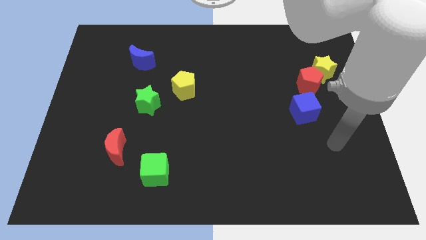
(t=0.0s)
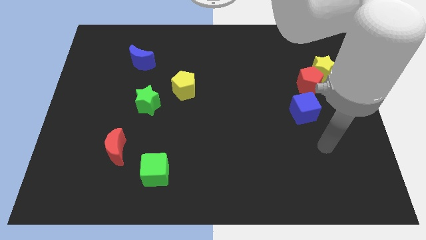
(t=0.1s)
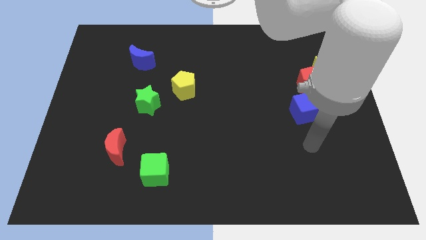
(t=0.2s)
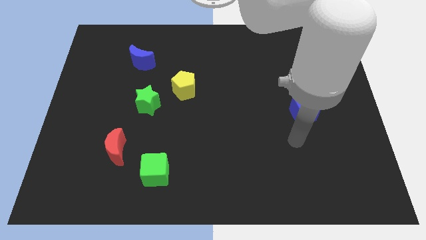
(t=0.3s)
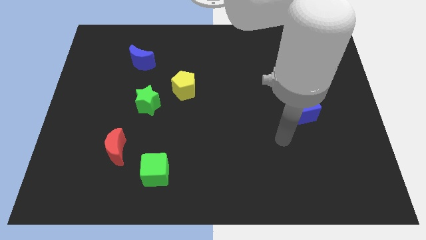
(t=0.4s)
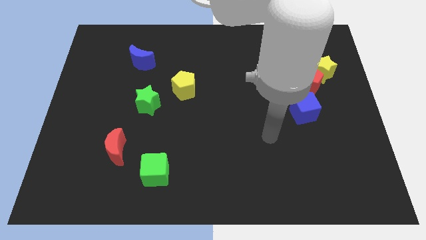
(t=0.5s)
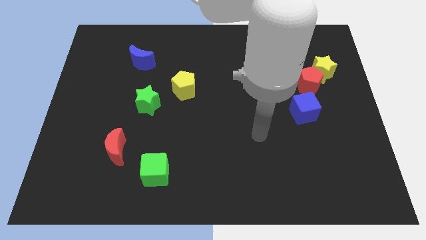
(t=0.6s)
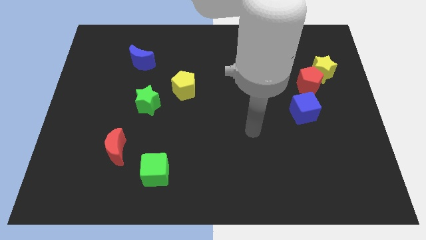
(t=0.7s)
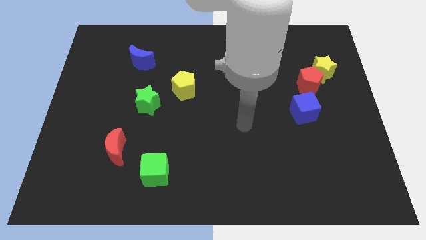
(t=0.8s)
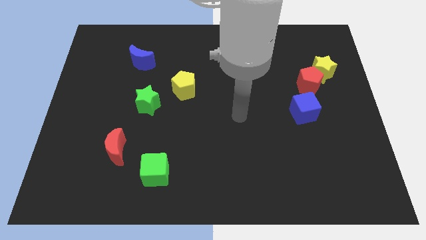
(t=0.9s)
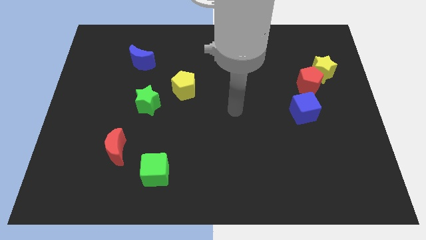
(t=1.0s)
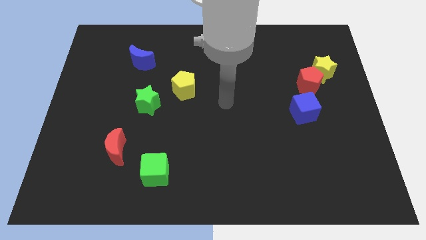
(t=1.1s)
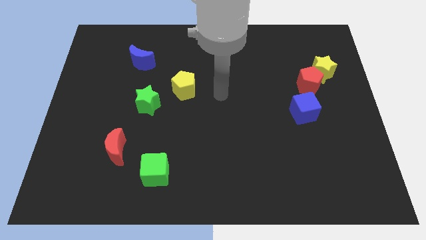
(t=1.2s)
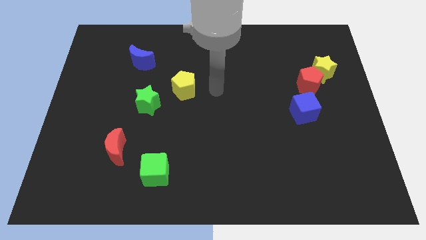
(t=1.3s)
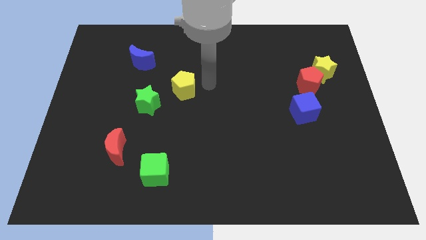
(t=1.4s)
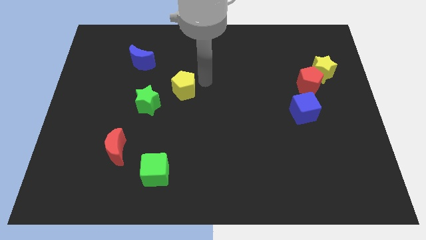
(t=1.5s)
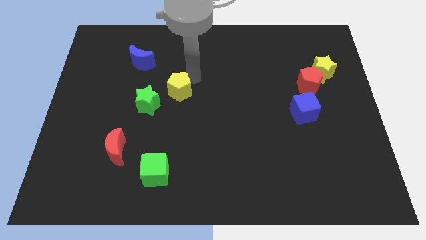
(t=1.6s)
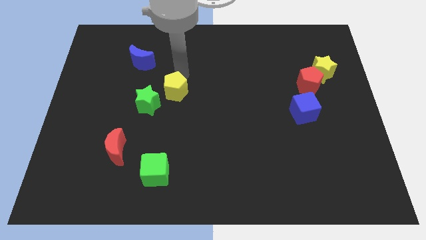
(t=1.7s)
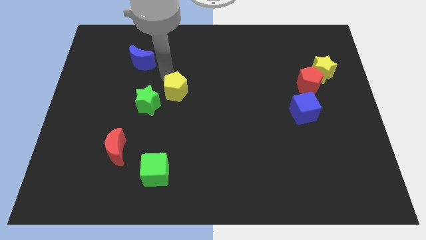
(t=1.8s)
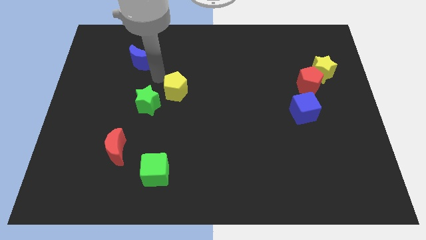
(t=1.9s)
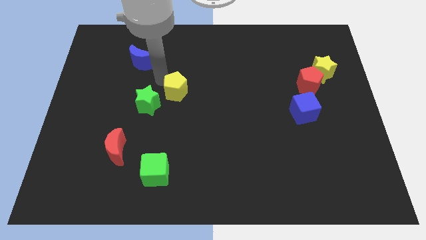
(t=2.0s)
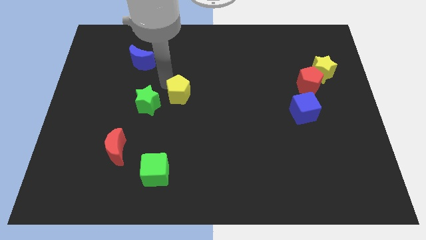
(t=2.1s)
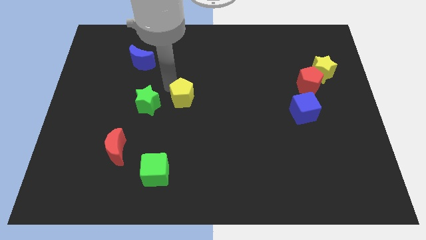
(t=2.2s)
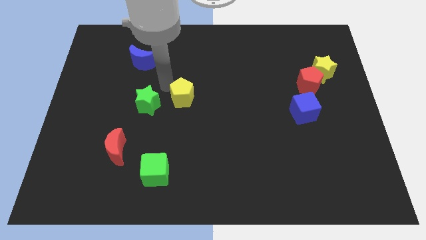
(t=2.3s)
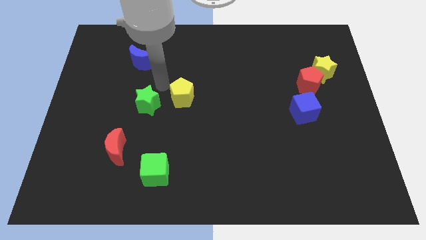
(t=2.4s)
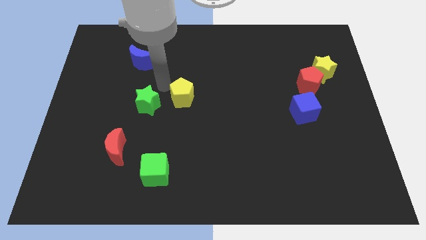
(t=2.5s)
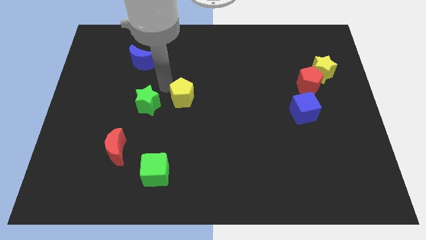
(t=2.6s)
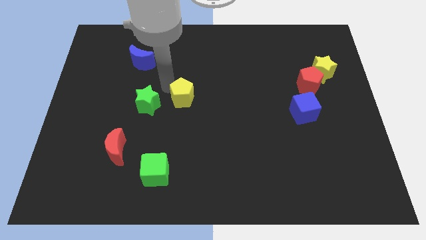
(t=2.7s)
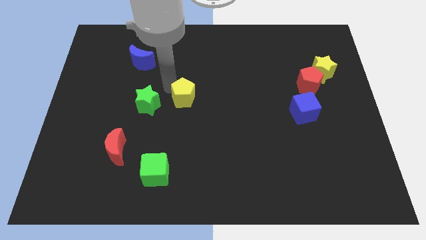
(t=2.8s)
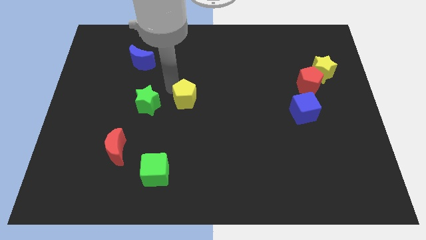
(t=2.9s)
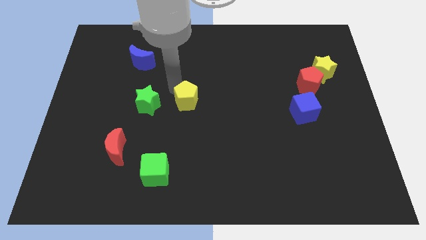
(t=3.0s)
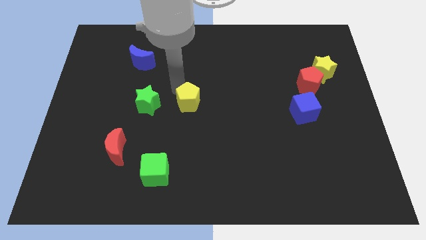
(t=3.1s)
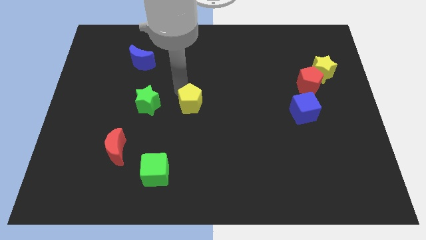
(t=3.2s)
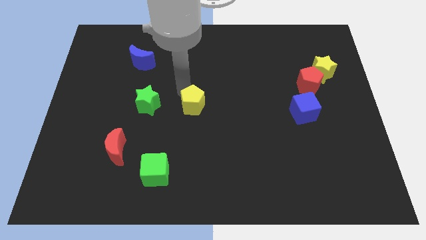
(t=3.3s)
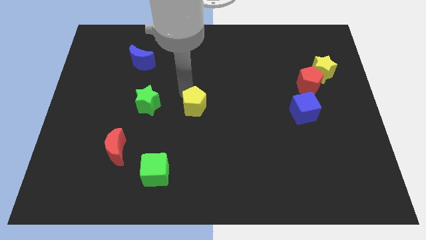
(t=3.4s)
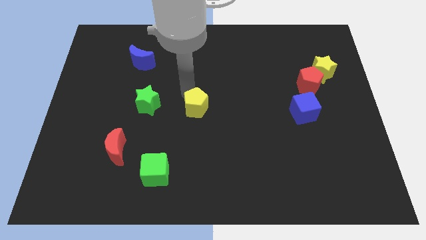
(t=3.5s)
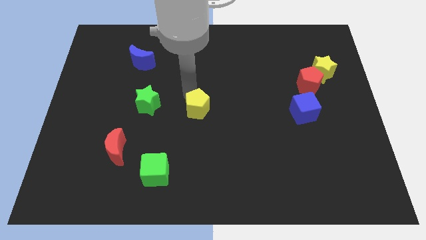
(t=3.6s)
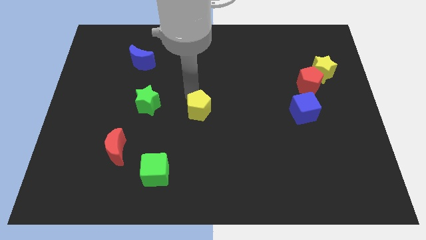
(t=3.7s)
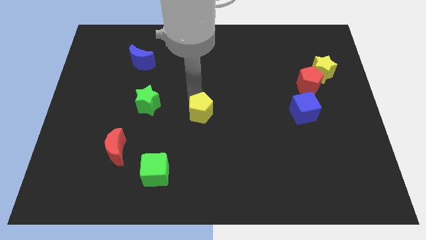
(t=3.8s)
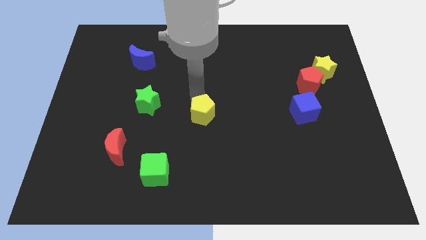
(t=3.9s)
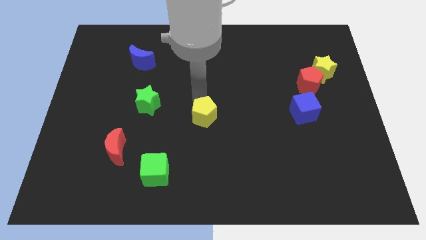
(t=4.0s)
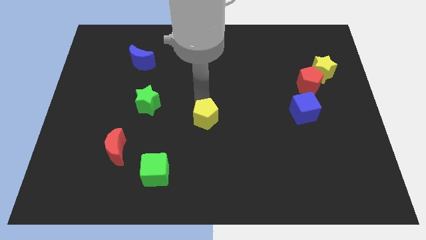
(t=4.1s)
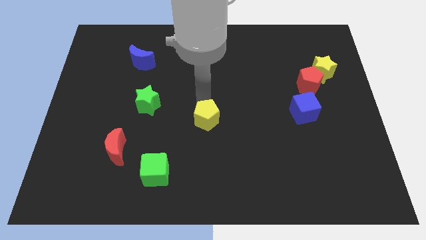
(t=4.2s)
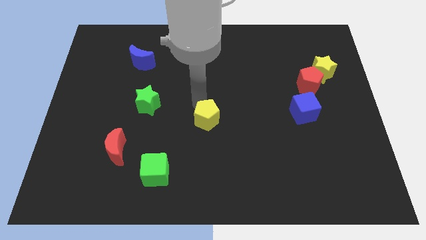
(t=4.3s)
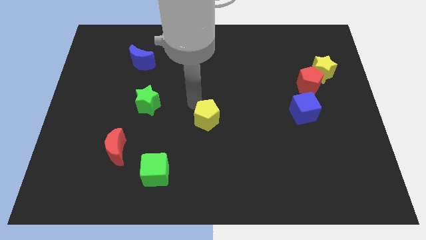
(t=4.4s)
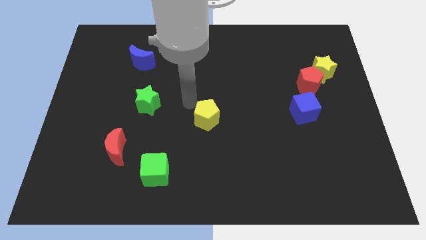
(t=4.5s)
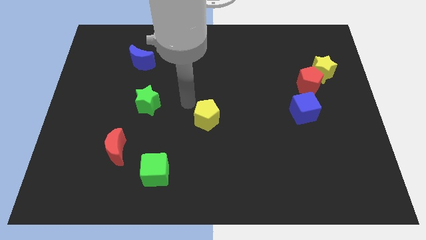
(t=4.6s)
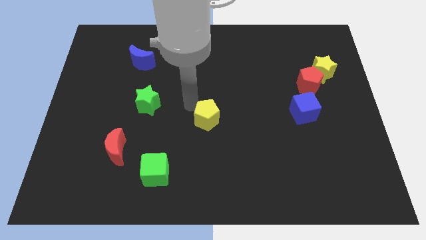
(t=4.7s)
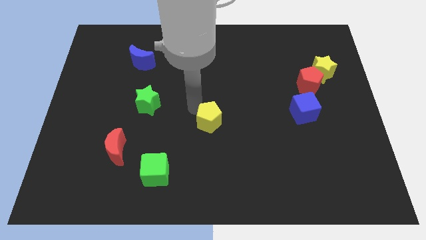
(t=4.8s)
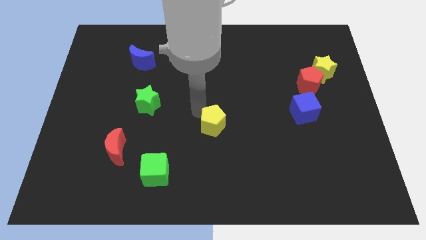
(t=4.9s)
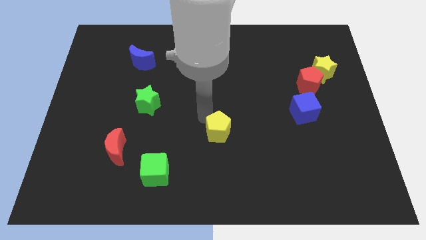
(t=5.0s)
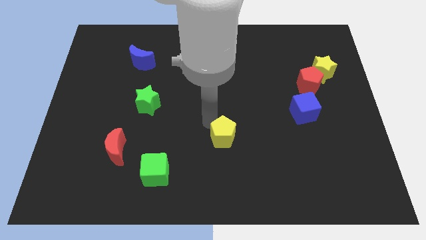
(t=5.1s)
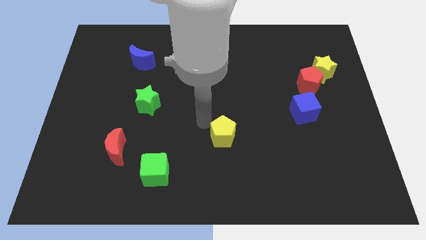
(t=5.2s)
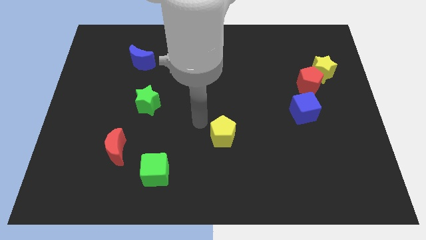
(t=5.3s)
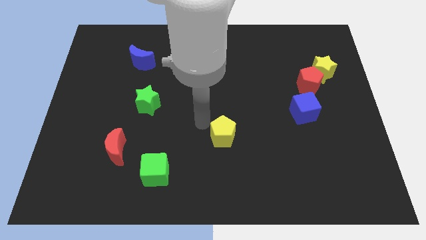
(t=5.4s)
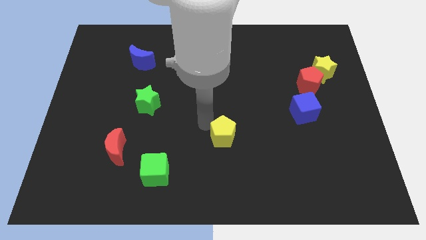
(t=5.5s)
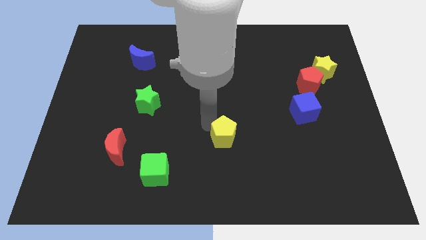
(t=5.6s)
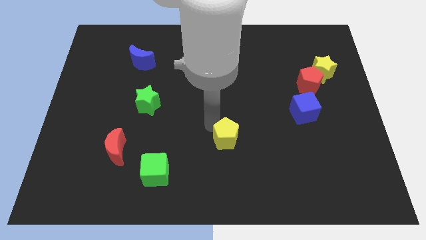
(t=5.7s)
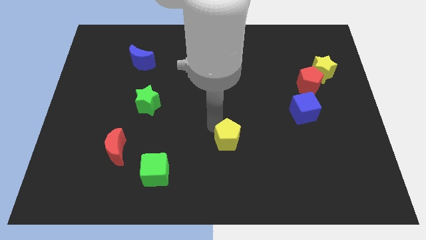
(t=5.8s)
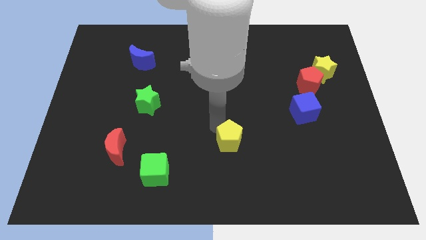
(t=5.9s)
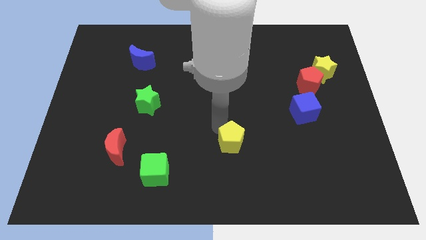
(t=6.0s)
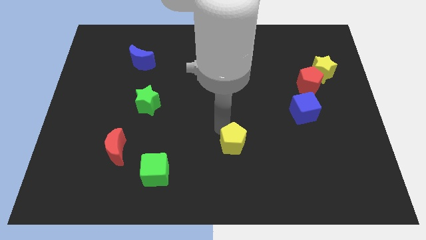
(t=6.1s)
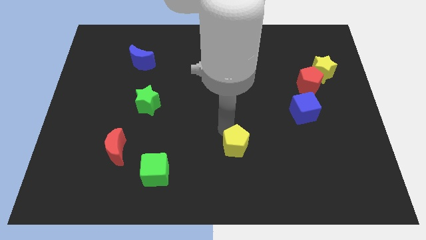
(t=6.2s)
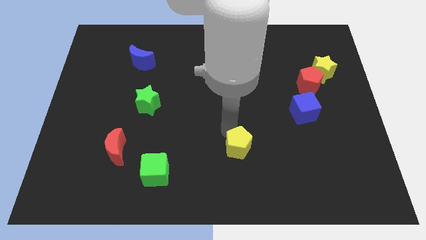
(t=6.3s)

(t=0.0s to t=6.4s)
slide the yellow pentagon down and to the right

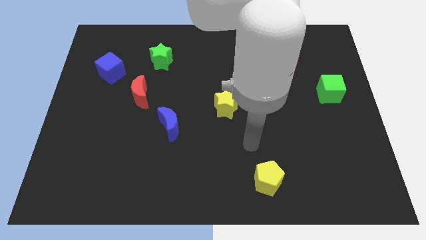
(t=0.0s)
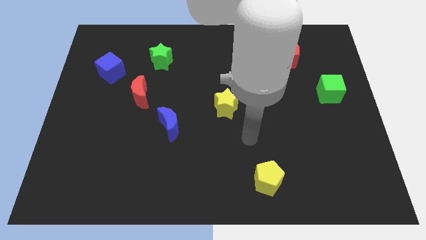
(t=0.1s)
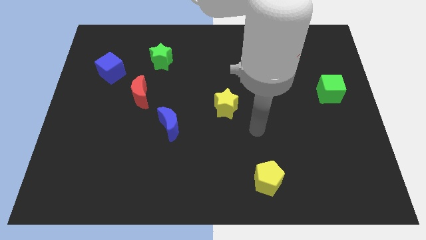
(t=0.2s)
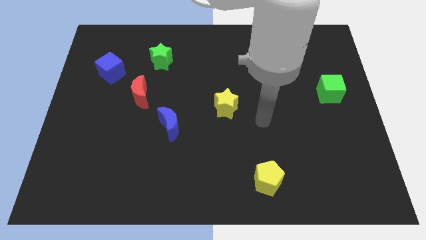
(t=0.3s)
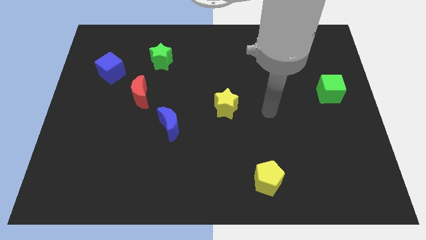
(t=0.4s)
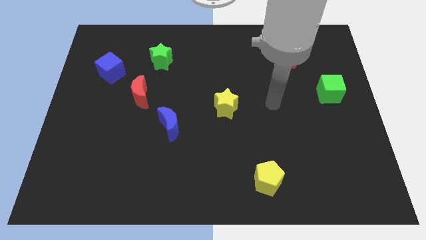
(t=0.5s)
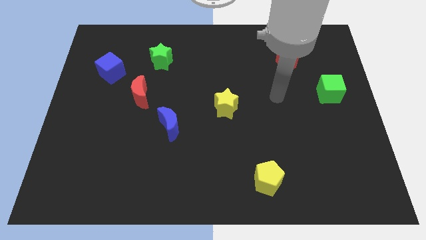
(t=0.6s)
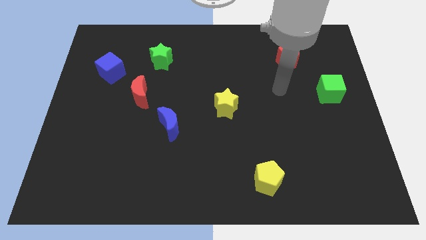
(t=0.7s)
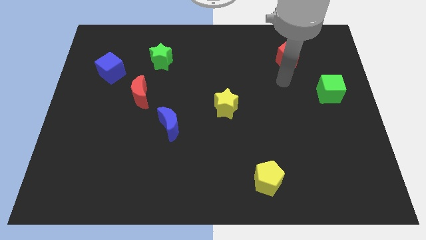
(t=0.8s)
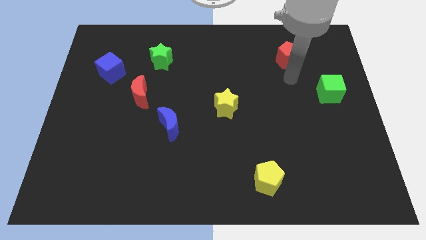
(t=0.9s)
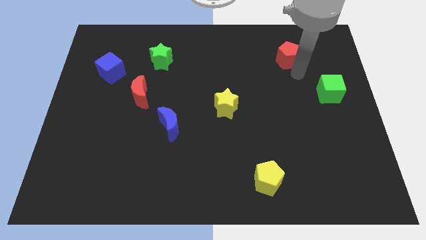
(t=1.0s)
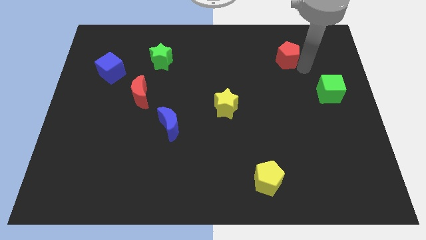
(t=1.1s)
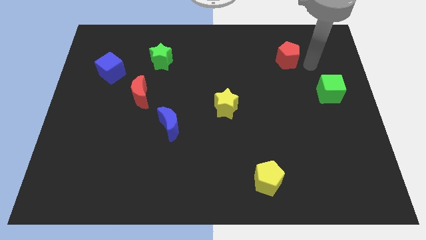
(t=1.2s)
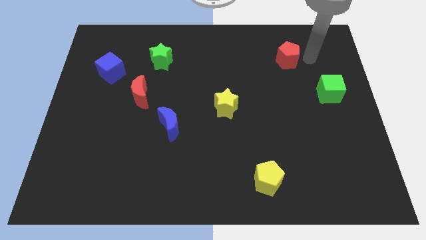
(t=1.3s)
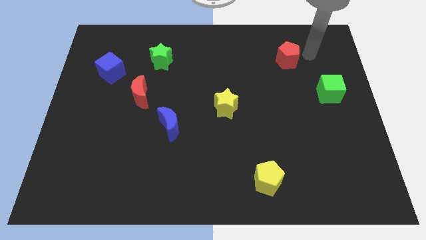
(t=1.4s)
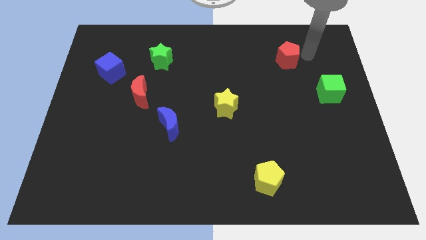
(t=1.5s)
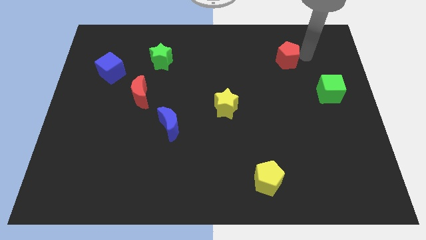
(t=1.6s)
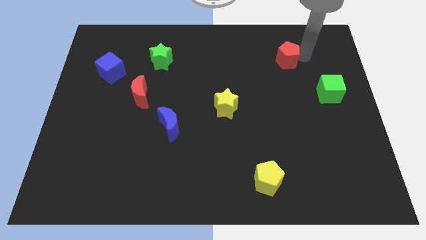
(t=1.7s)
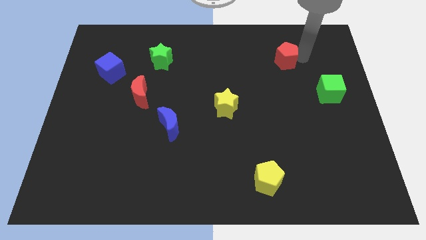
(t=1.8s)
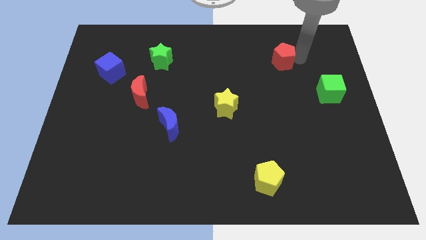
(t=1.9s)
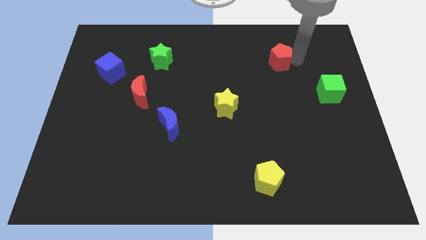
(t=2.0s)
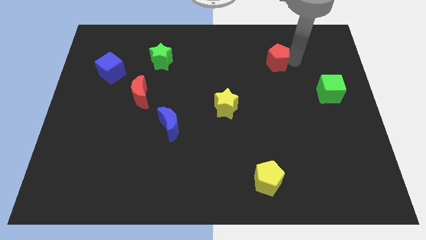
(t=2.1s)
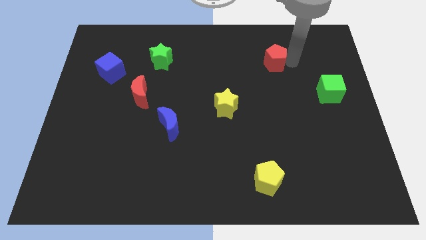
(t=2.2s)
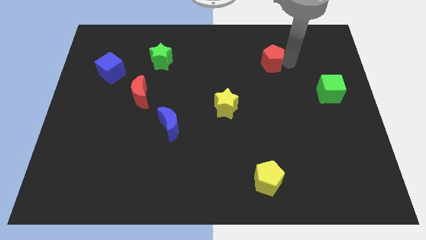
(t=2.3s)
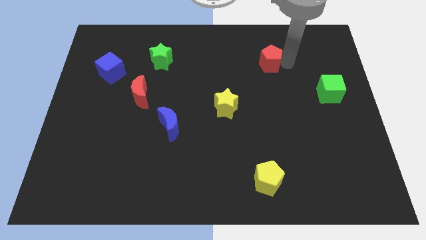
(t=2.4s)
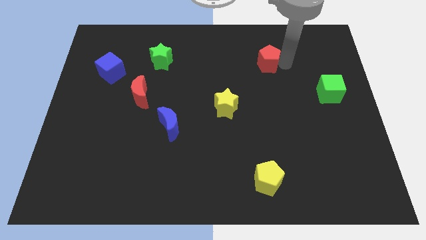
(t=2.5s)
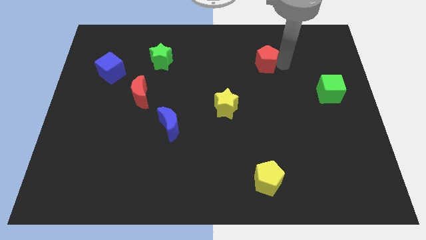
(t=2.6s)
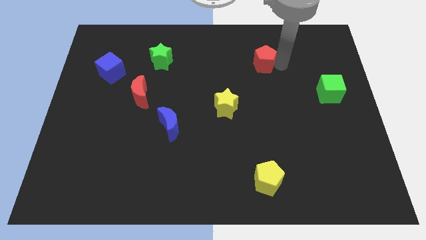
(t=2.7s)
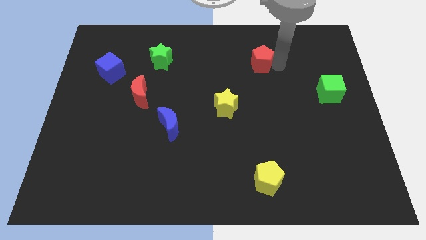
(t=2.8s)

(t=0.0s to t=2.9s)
slide the red pentagon to the left slightly
